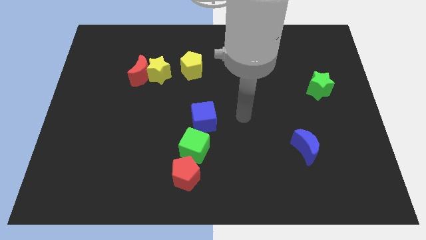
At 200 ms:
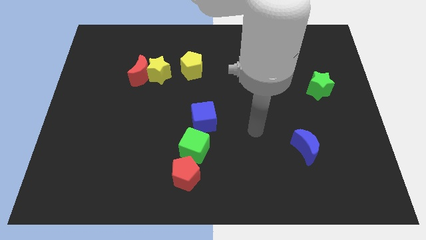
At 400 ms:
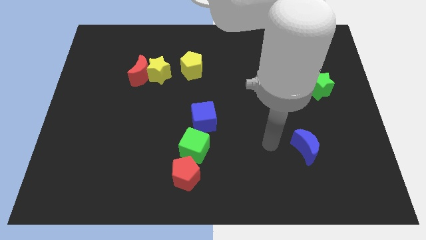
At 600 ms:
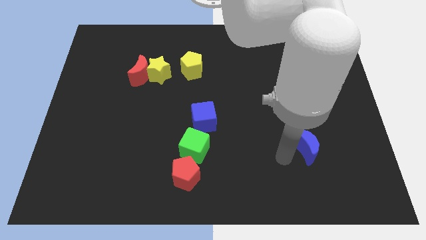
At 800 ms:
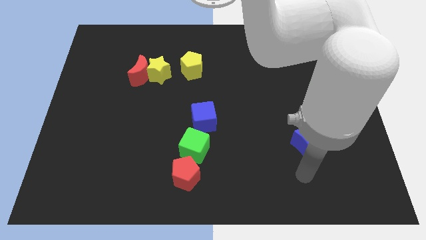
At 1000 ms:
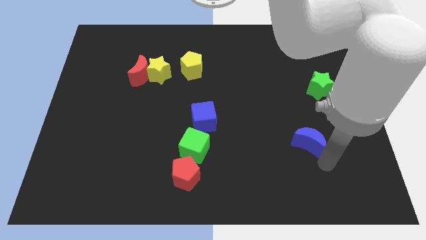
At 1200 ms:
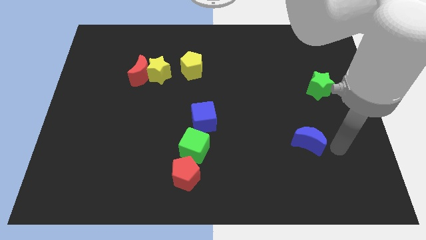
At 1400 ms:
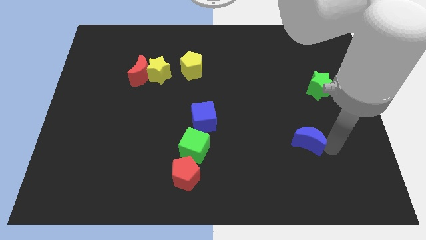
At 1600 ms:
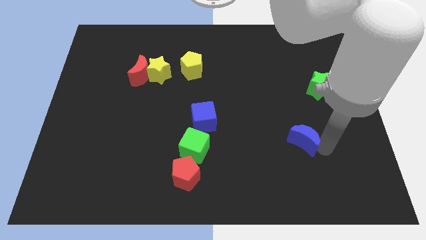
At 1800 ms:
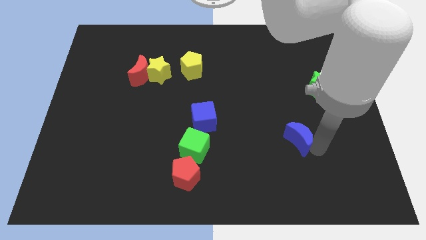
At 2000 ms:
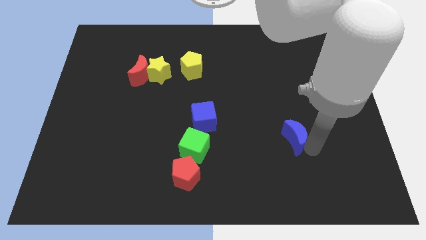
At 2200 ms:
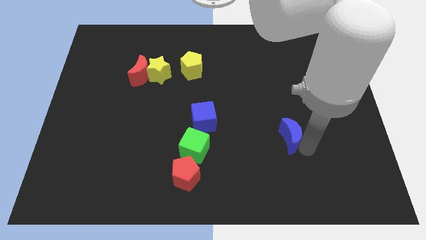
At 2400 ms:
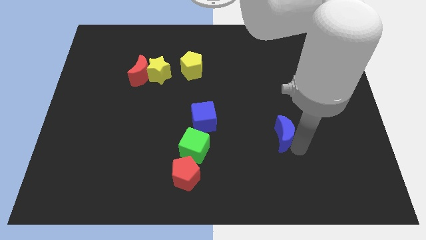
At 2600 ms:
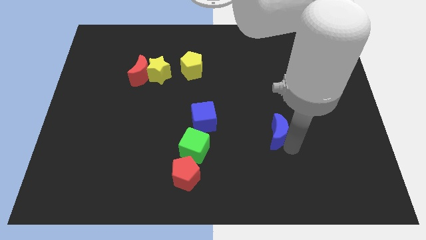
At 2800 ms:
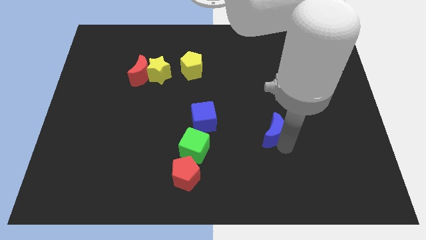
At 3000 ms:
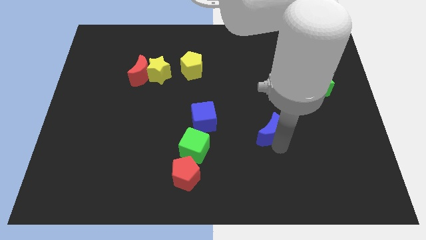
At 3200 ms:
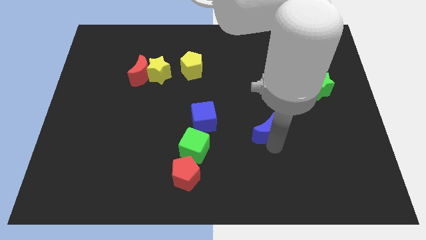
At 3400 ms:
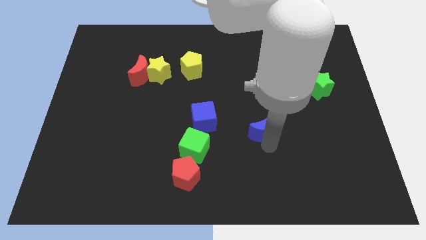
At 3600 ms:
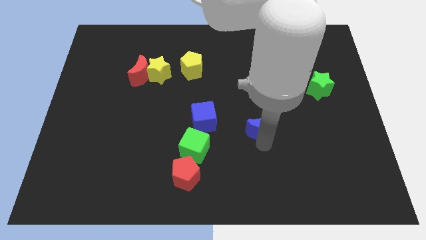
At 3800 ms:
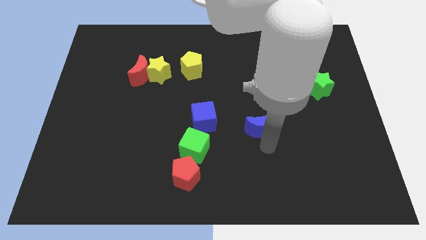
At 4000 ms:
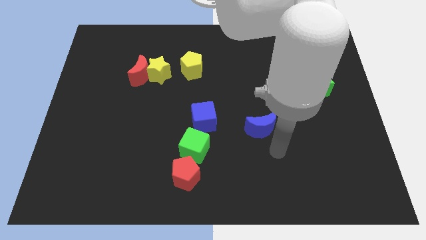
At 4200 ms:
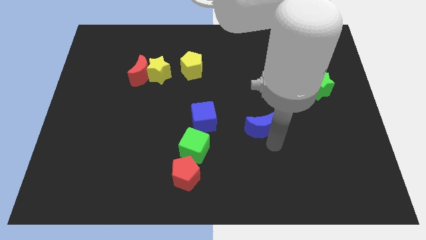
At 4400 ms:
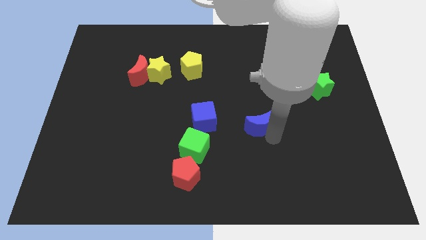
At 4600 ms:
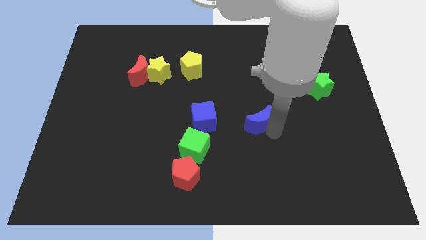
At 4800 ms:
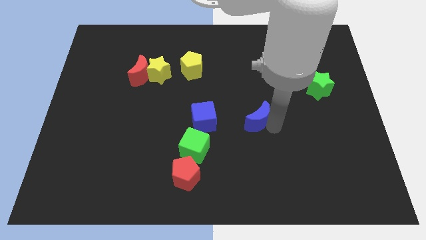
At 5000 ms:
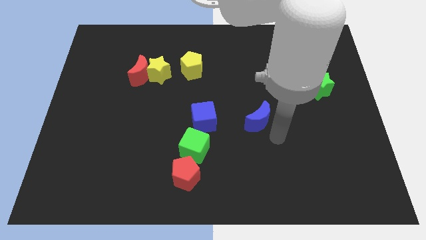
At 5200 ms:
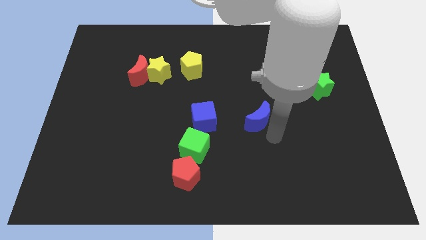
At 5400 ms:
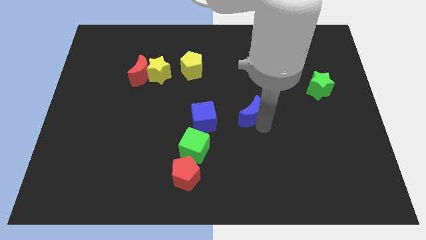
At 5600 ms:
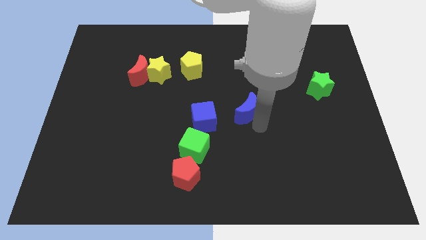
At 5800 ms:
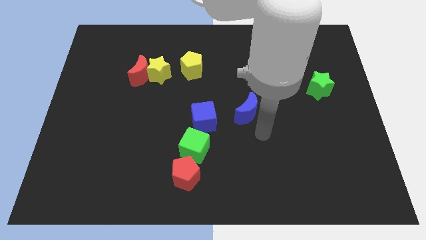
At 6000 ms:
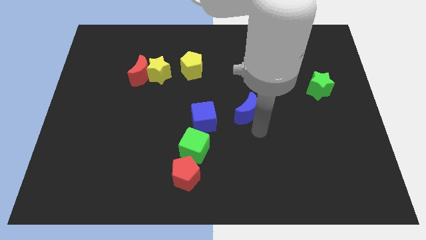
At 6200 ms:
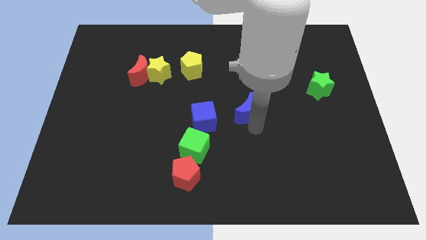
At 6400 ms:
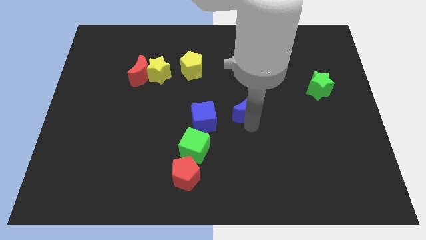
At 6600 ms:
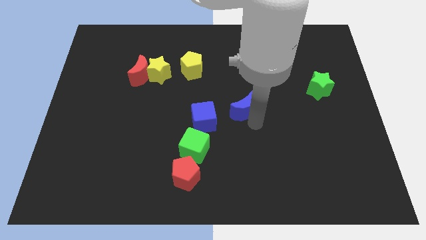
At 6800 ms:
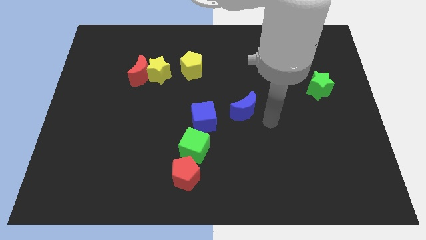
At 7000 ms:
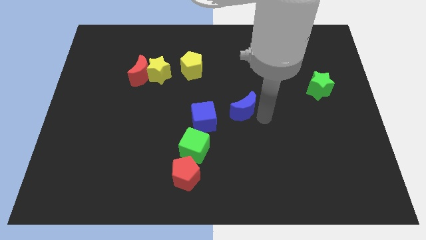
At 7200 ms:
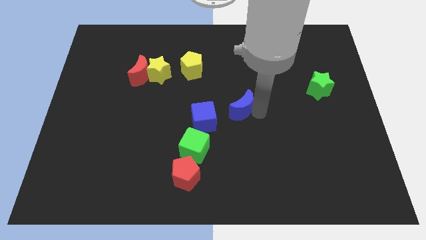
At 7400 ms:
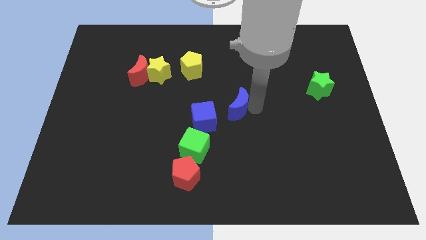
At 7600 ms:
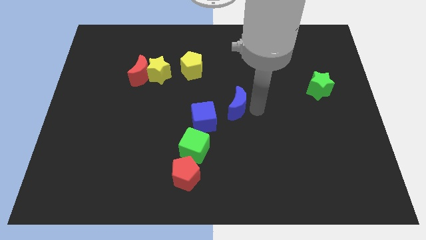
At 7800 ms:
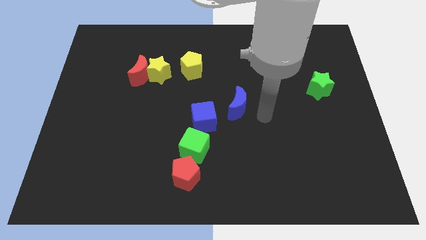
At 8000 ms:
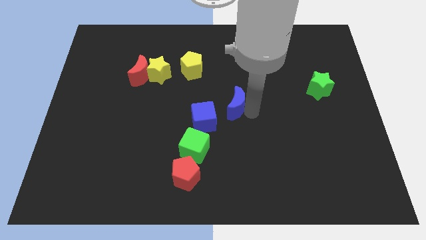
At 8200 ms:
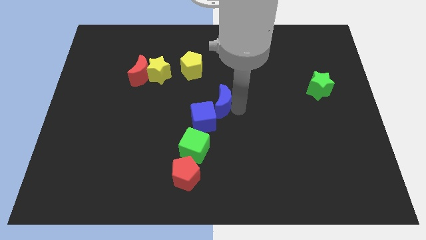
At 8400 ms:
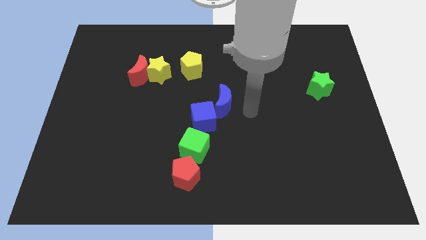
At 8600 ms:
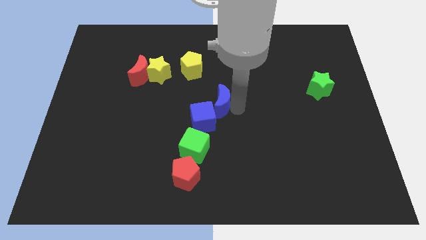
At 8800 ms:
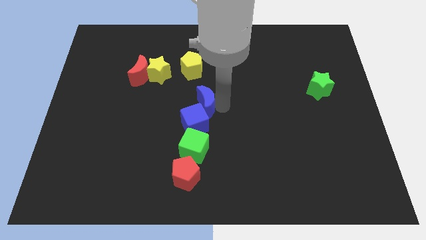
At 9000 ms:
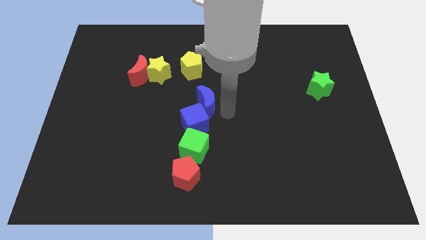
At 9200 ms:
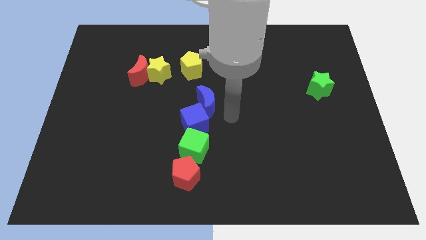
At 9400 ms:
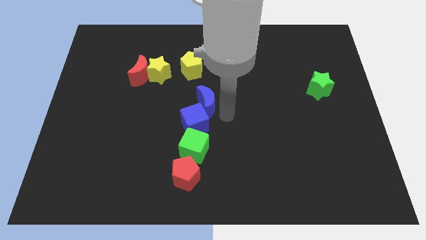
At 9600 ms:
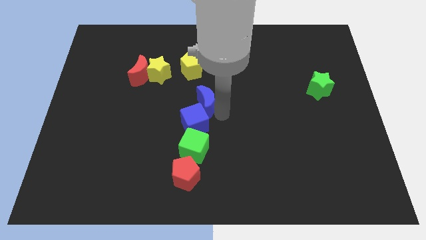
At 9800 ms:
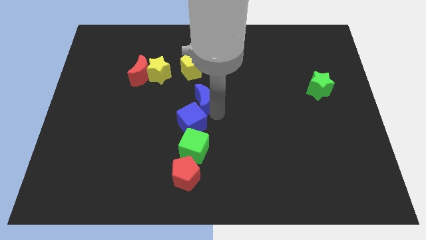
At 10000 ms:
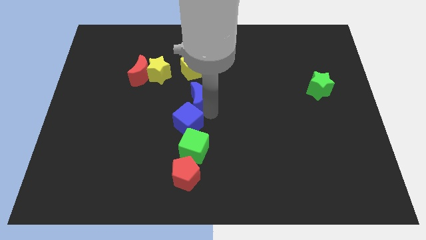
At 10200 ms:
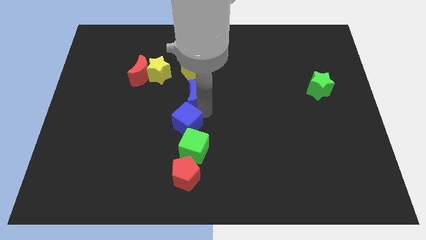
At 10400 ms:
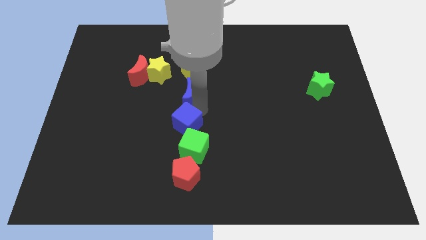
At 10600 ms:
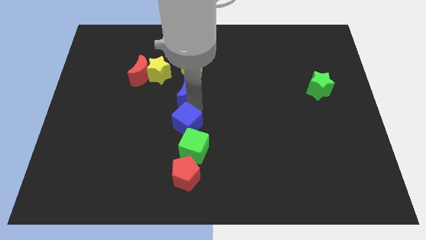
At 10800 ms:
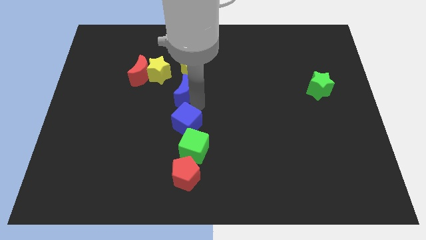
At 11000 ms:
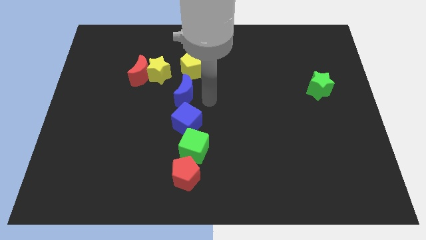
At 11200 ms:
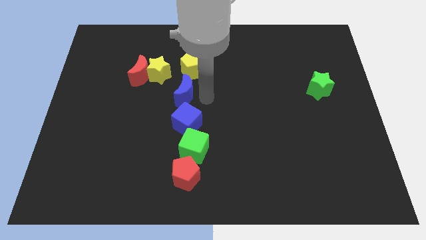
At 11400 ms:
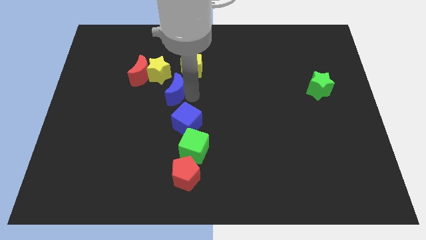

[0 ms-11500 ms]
move the blue moon to the bottom right of the red moon

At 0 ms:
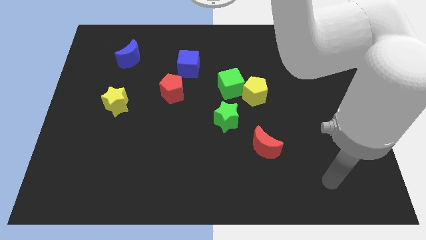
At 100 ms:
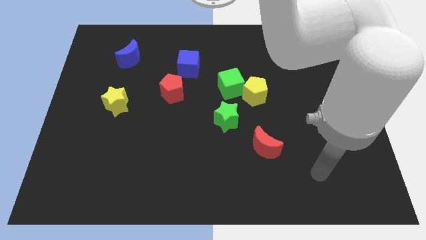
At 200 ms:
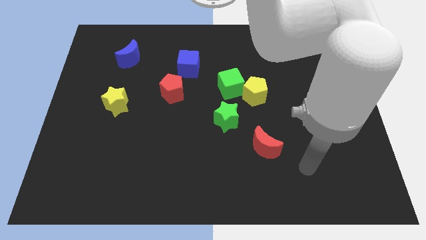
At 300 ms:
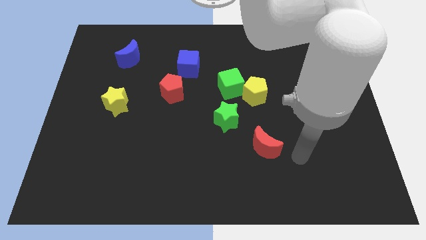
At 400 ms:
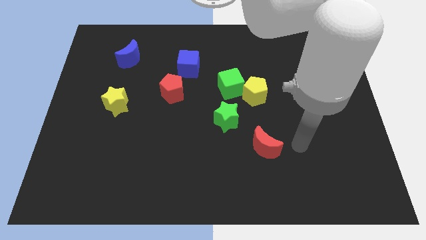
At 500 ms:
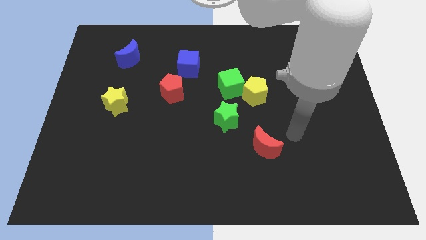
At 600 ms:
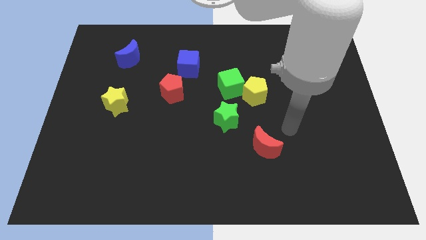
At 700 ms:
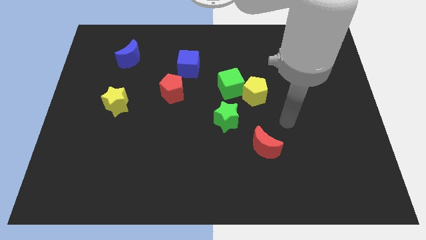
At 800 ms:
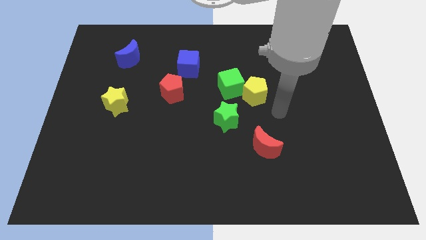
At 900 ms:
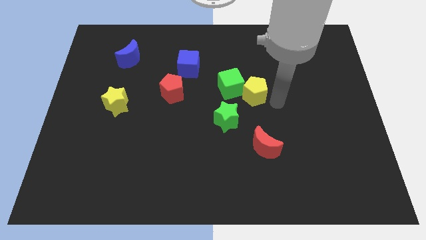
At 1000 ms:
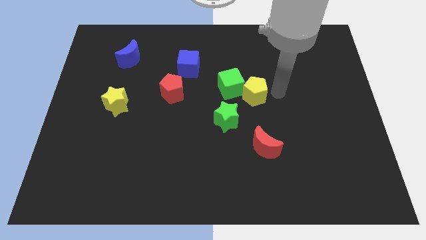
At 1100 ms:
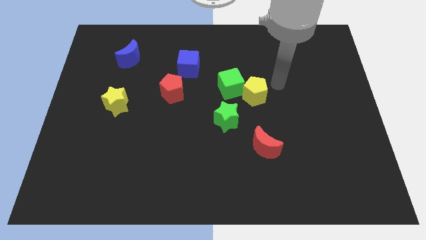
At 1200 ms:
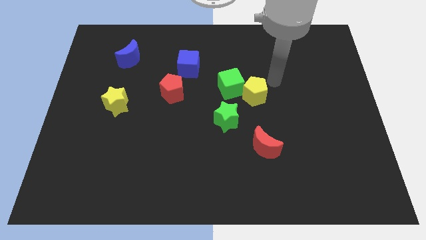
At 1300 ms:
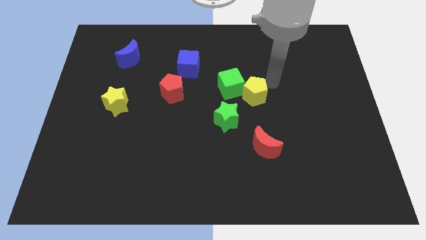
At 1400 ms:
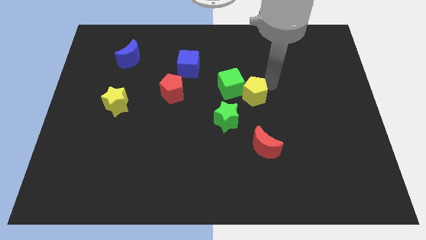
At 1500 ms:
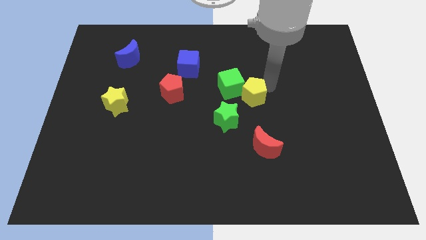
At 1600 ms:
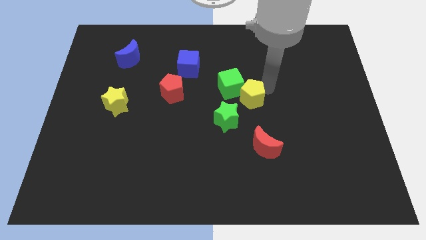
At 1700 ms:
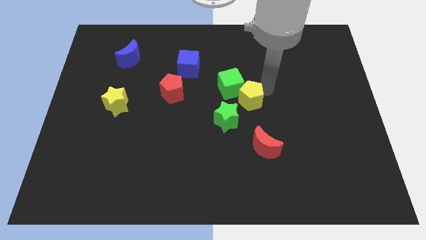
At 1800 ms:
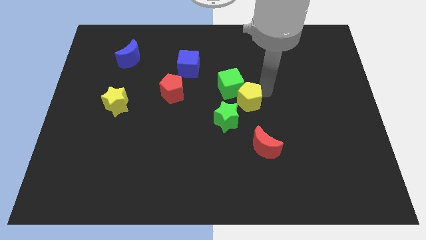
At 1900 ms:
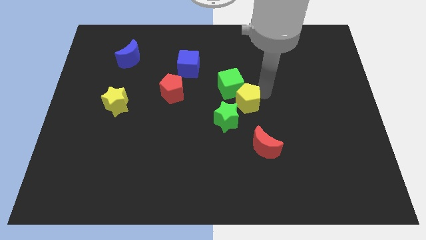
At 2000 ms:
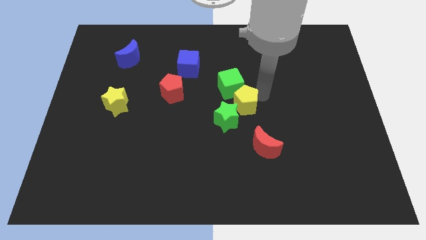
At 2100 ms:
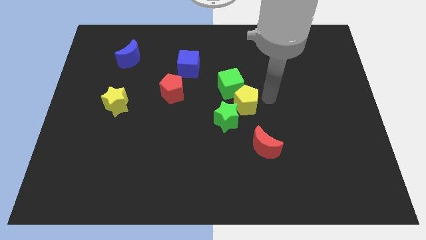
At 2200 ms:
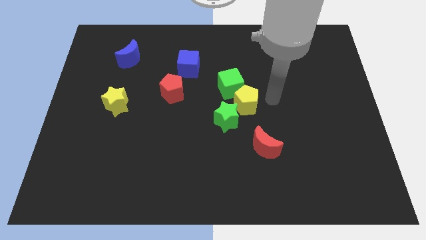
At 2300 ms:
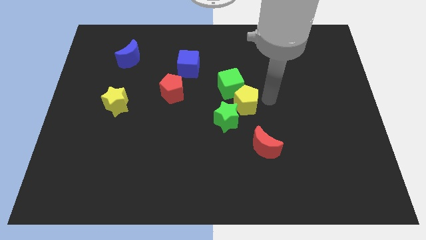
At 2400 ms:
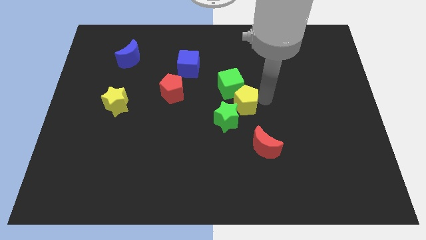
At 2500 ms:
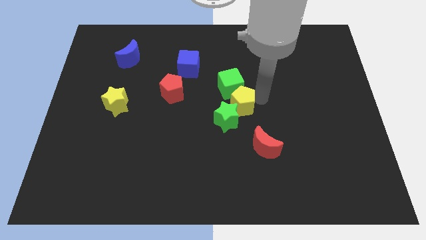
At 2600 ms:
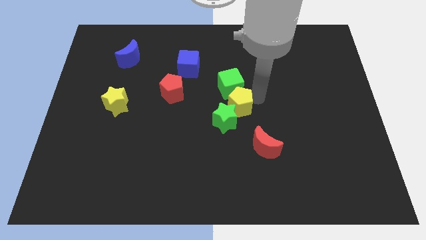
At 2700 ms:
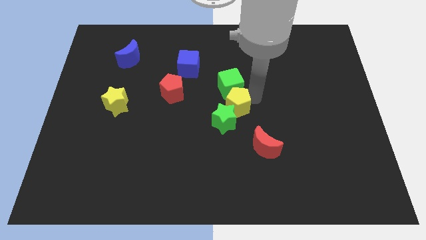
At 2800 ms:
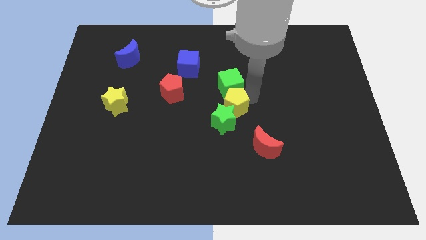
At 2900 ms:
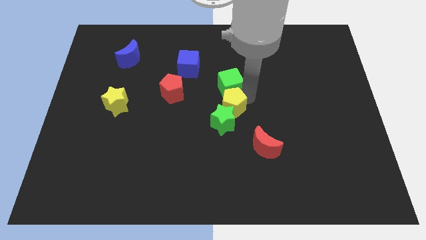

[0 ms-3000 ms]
push the yellow pentagon just right of the red pentagon
